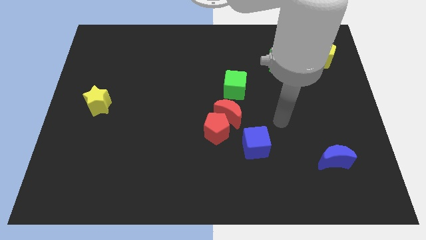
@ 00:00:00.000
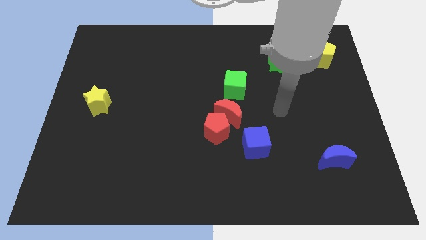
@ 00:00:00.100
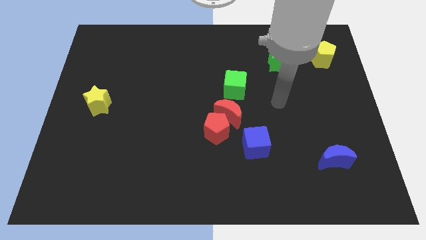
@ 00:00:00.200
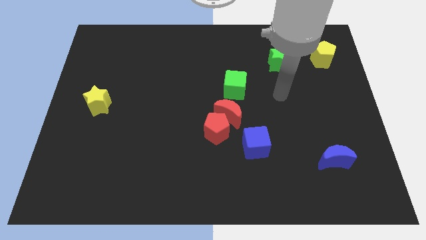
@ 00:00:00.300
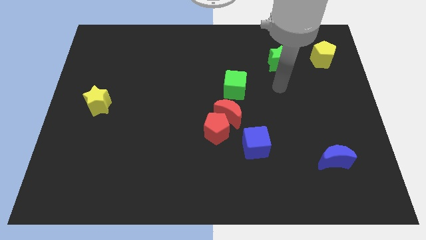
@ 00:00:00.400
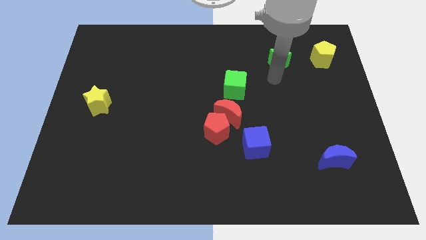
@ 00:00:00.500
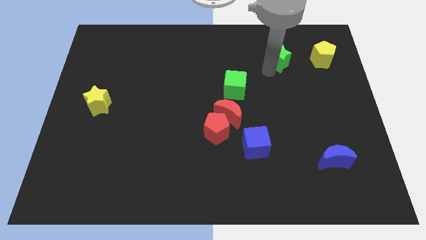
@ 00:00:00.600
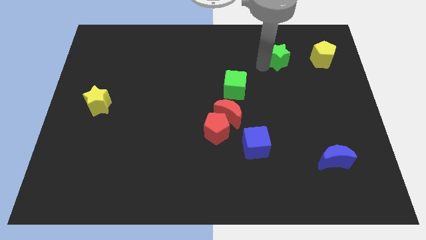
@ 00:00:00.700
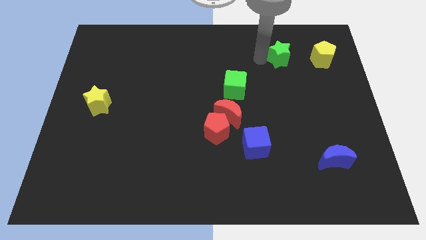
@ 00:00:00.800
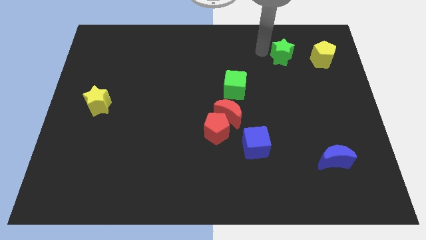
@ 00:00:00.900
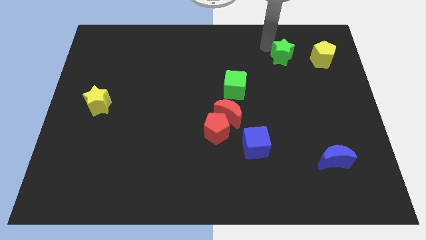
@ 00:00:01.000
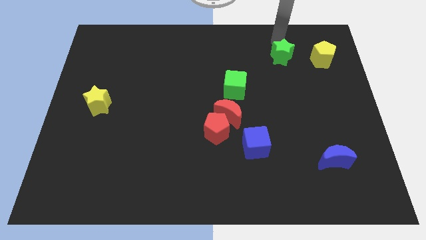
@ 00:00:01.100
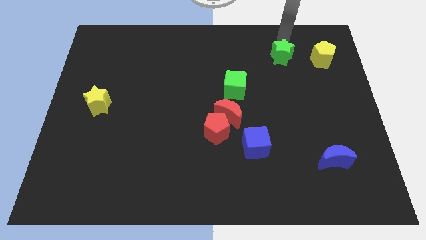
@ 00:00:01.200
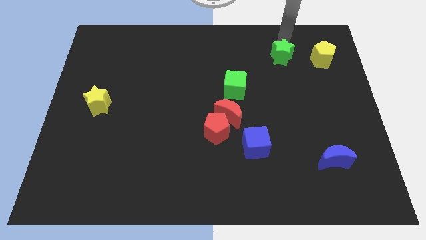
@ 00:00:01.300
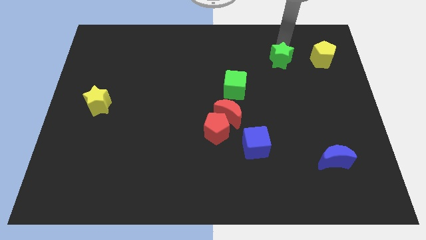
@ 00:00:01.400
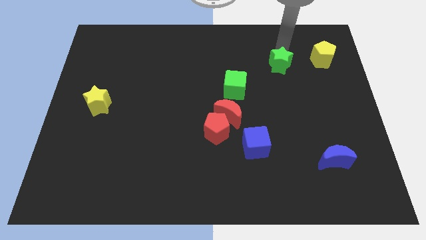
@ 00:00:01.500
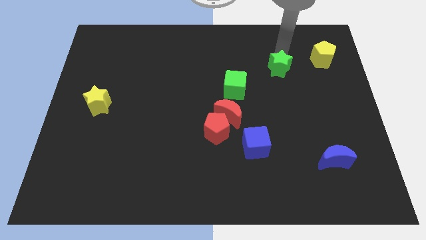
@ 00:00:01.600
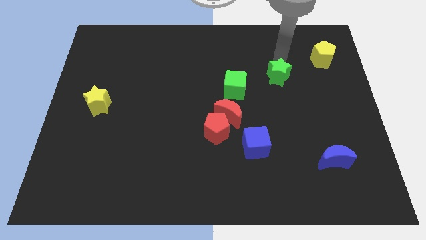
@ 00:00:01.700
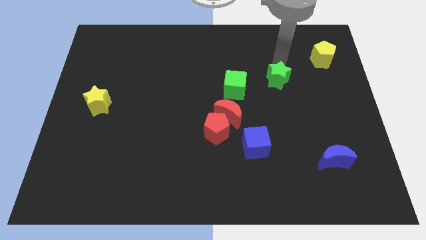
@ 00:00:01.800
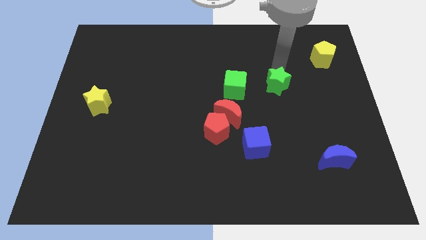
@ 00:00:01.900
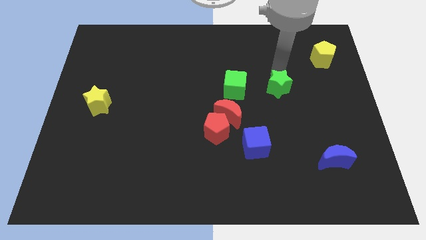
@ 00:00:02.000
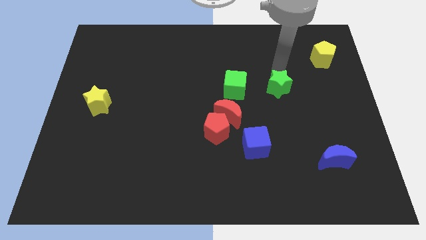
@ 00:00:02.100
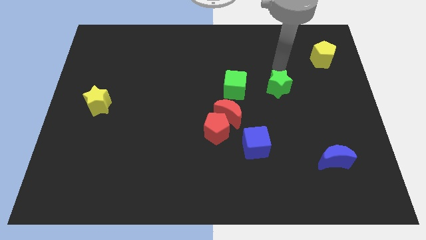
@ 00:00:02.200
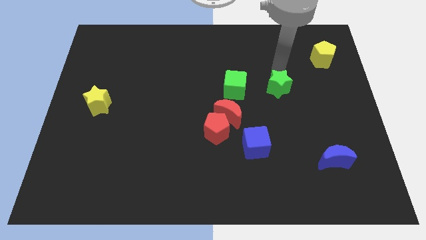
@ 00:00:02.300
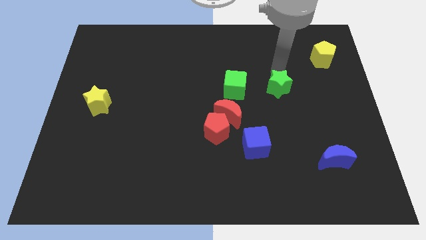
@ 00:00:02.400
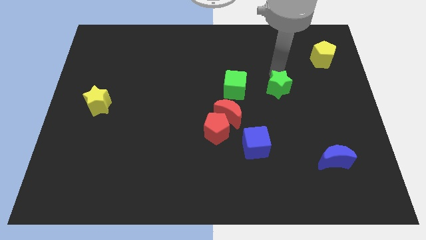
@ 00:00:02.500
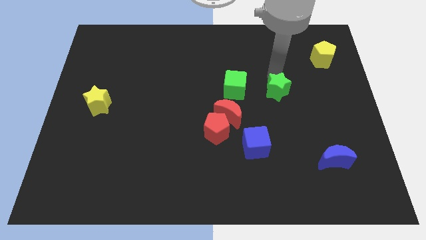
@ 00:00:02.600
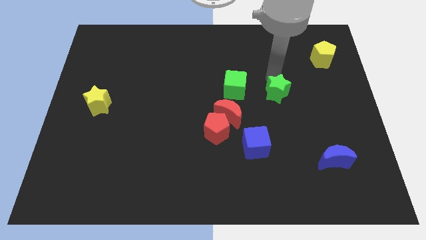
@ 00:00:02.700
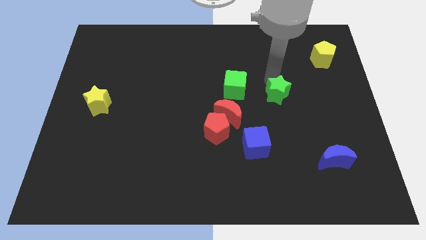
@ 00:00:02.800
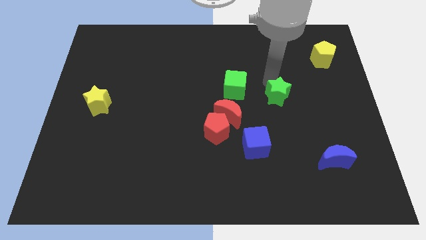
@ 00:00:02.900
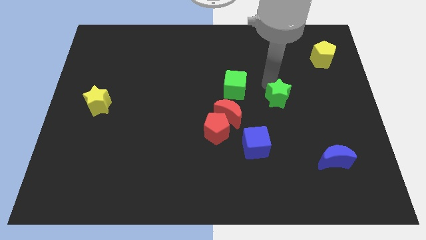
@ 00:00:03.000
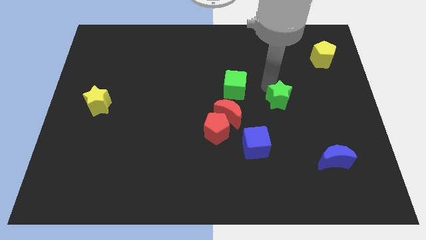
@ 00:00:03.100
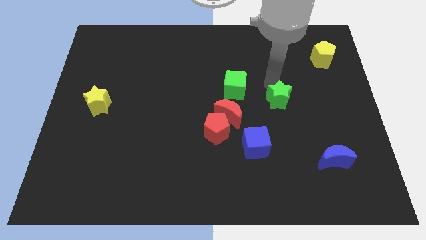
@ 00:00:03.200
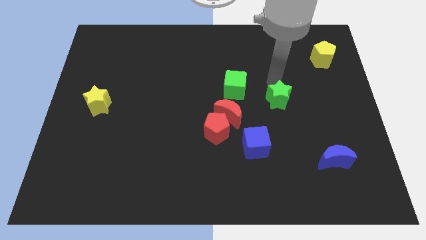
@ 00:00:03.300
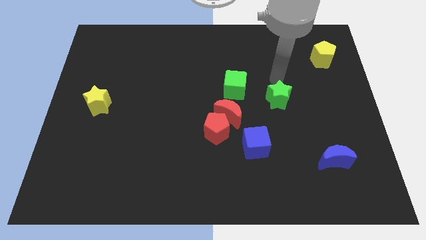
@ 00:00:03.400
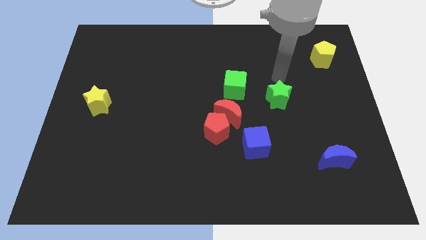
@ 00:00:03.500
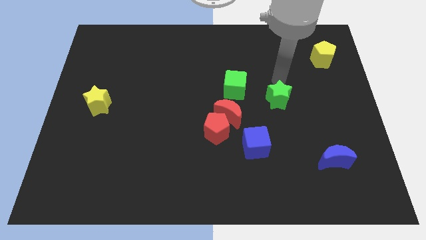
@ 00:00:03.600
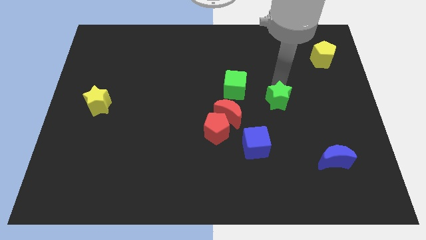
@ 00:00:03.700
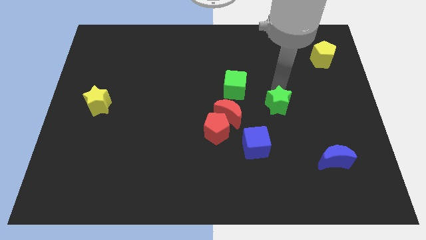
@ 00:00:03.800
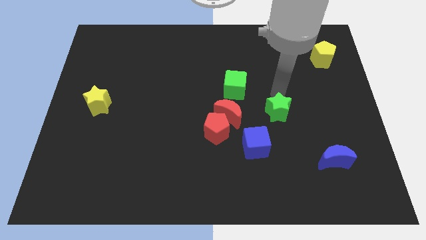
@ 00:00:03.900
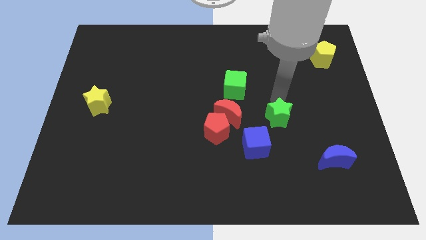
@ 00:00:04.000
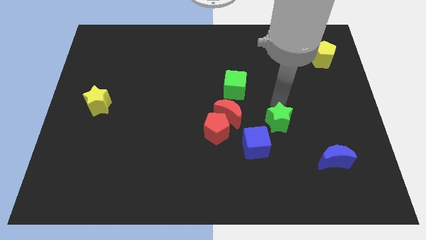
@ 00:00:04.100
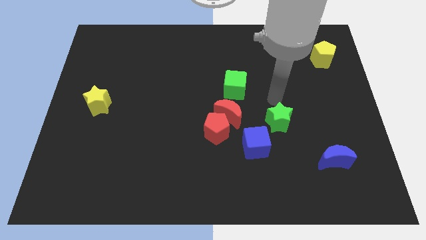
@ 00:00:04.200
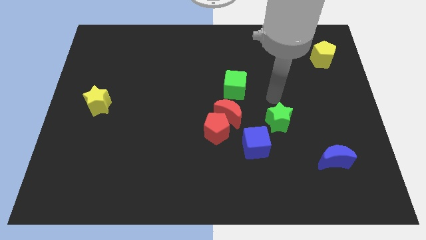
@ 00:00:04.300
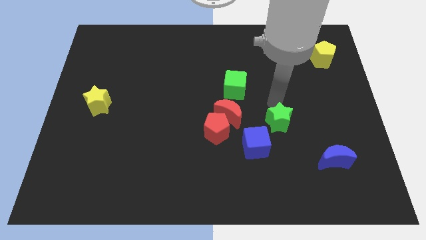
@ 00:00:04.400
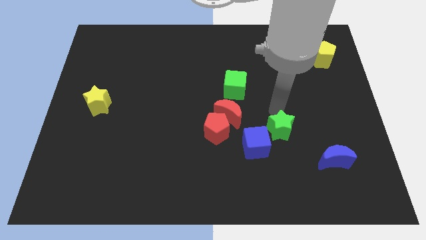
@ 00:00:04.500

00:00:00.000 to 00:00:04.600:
slide the green star down

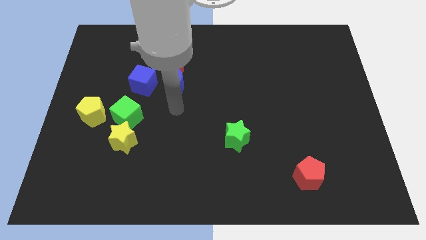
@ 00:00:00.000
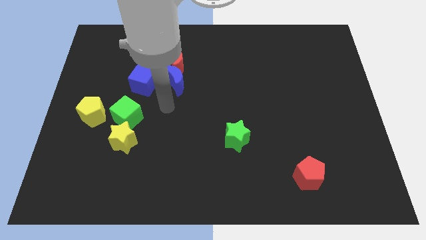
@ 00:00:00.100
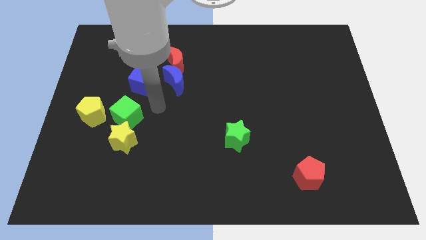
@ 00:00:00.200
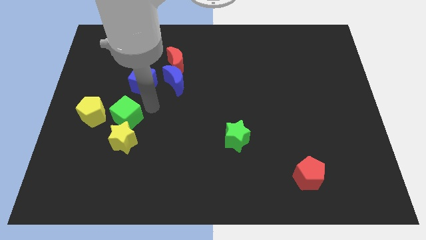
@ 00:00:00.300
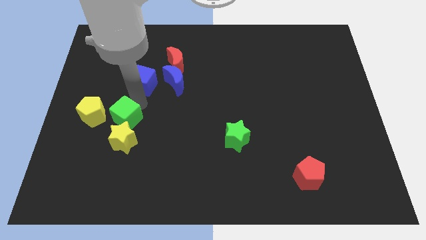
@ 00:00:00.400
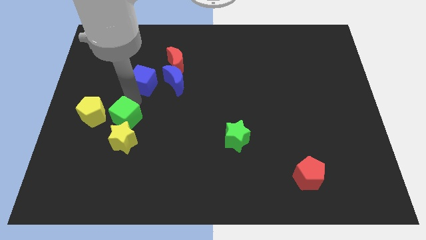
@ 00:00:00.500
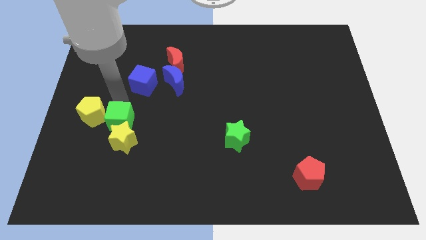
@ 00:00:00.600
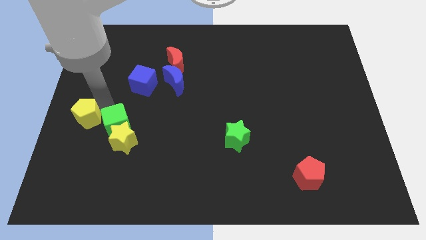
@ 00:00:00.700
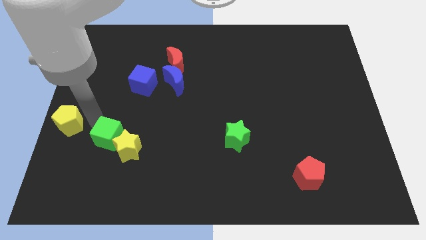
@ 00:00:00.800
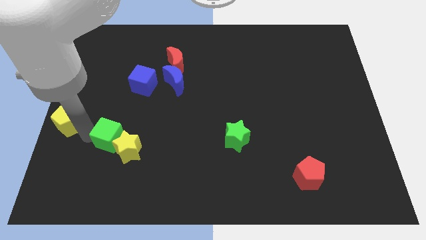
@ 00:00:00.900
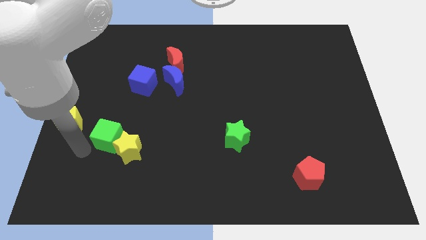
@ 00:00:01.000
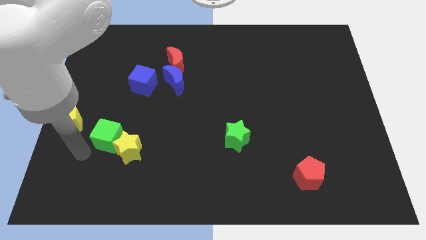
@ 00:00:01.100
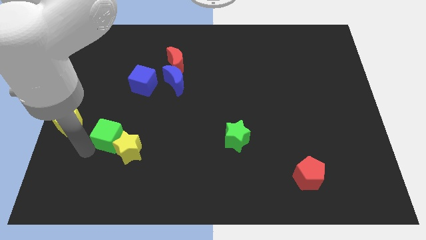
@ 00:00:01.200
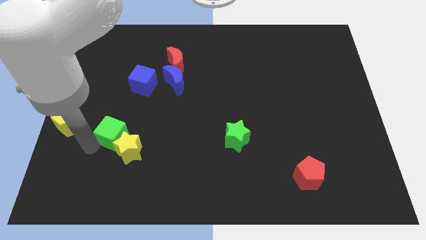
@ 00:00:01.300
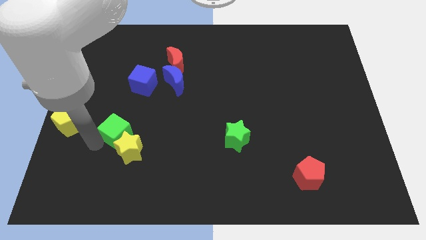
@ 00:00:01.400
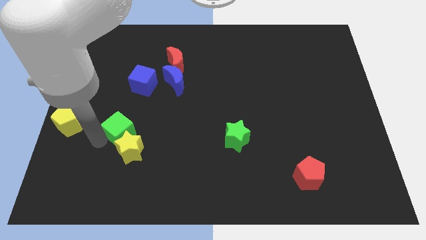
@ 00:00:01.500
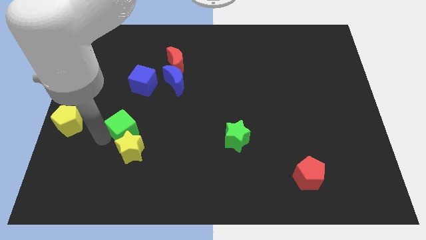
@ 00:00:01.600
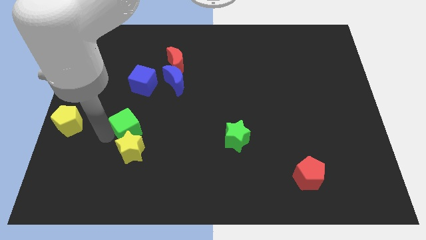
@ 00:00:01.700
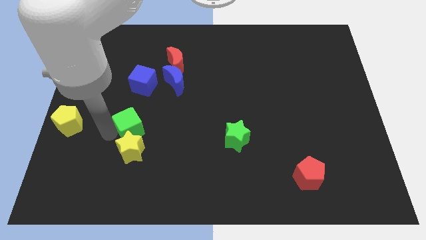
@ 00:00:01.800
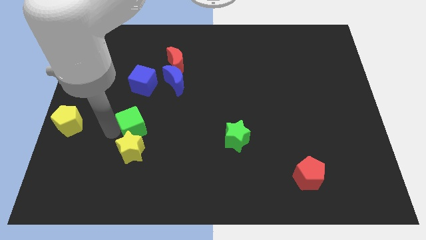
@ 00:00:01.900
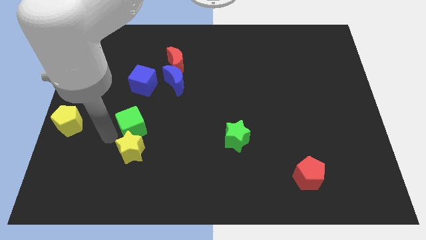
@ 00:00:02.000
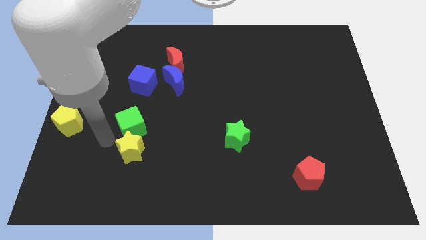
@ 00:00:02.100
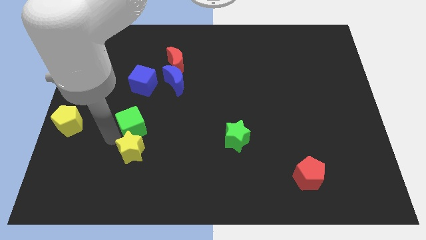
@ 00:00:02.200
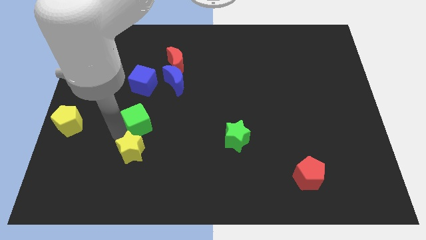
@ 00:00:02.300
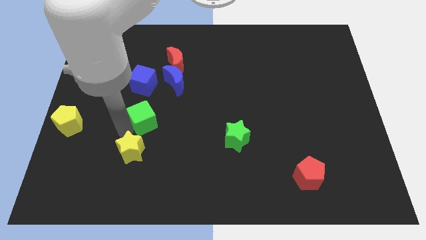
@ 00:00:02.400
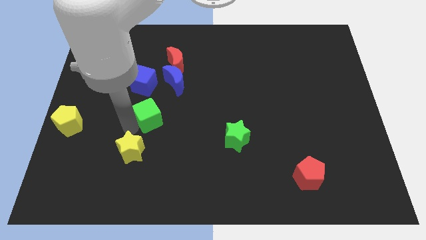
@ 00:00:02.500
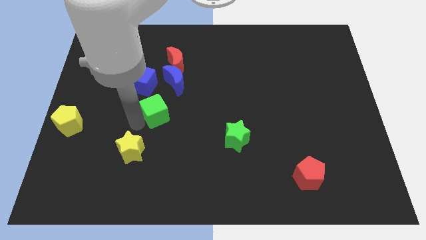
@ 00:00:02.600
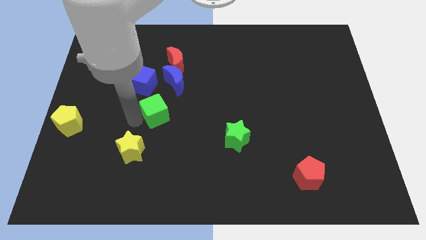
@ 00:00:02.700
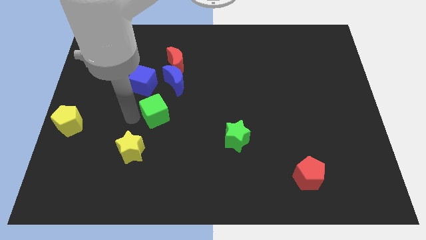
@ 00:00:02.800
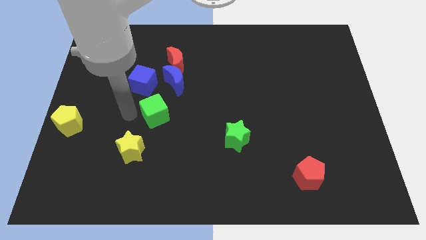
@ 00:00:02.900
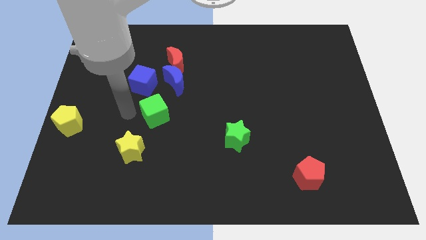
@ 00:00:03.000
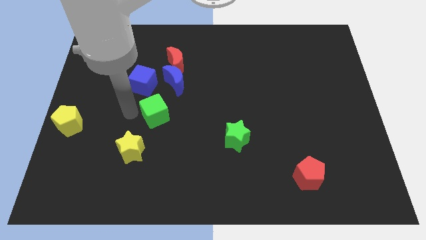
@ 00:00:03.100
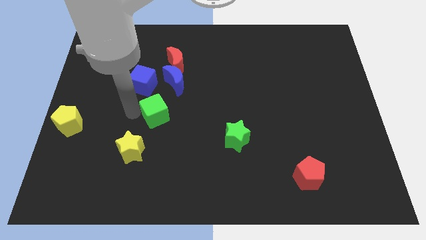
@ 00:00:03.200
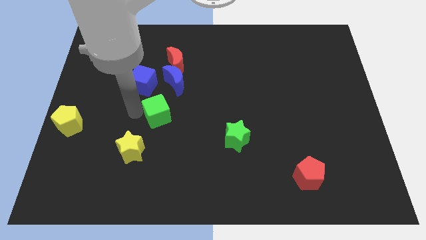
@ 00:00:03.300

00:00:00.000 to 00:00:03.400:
move the green cube a bit to the right
